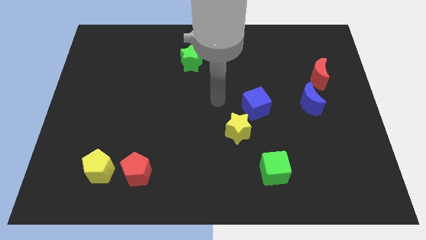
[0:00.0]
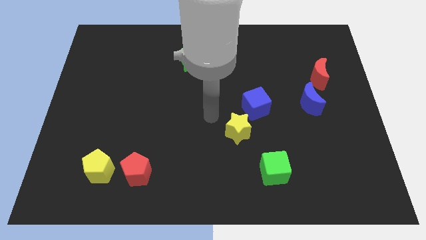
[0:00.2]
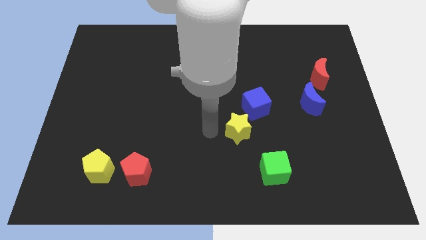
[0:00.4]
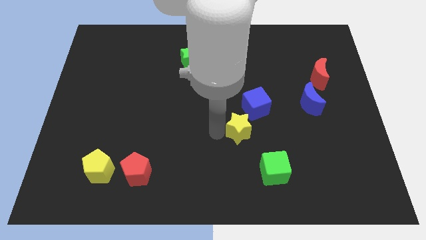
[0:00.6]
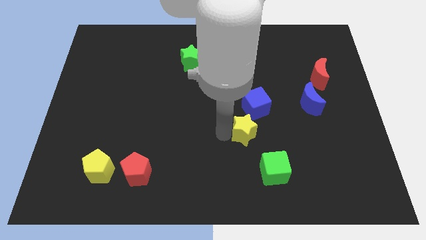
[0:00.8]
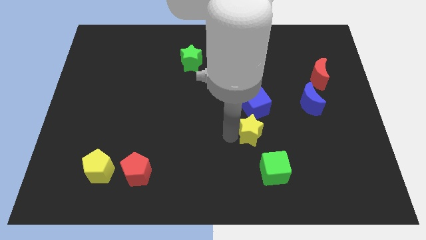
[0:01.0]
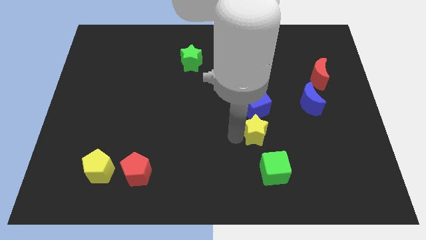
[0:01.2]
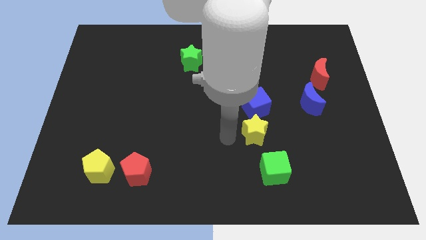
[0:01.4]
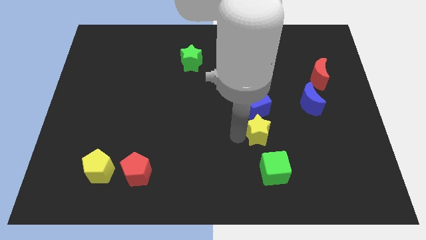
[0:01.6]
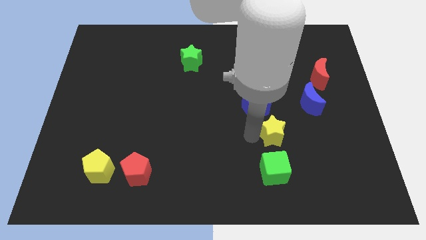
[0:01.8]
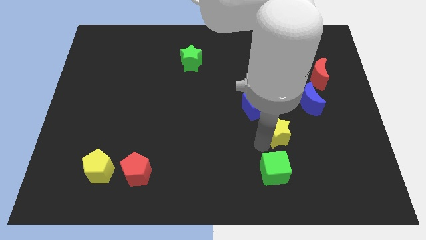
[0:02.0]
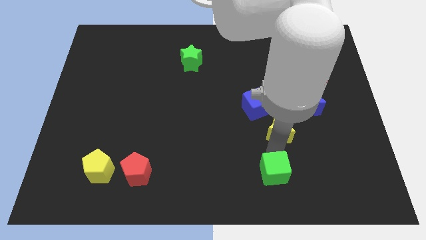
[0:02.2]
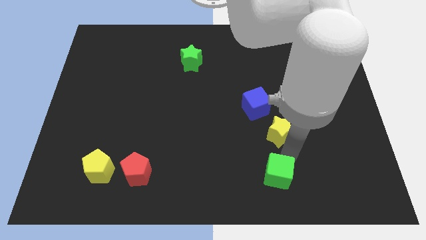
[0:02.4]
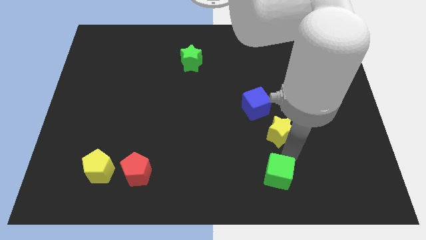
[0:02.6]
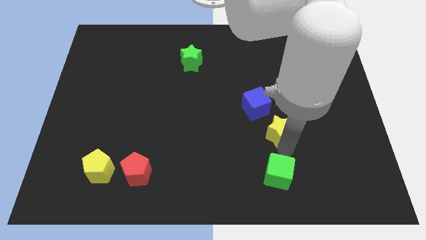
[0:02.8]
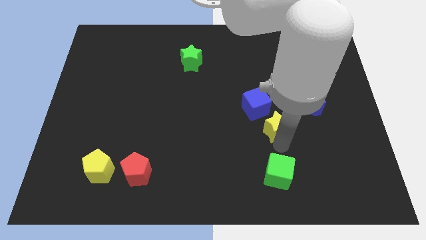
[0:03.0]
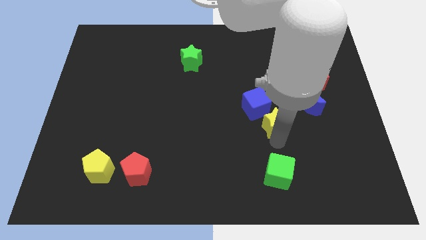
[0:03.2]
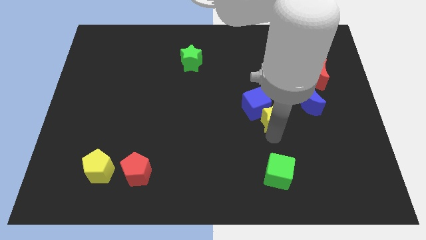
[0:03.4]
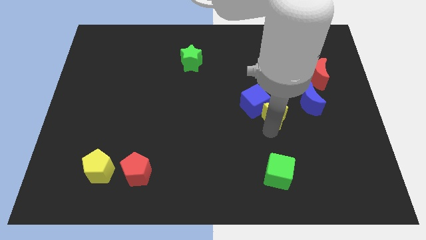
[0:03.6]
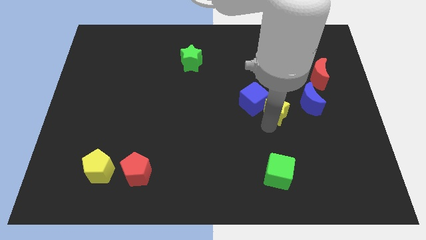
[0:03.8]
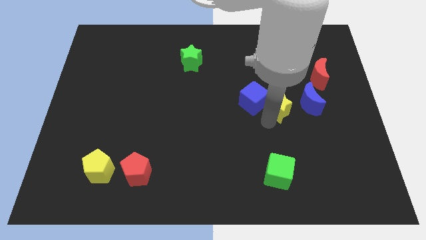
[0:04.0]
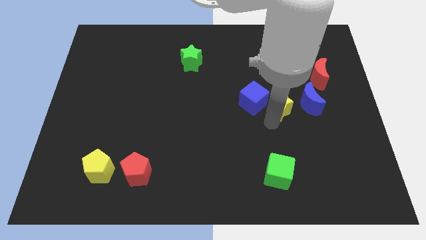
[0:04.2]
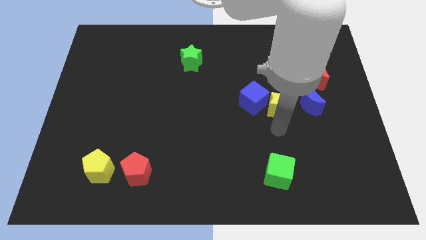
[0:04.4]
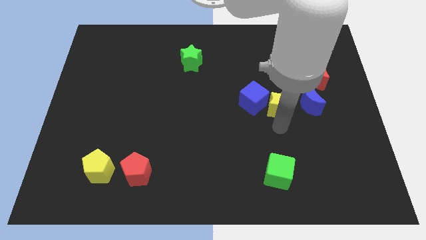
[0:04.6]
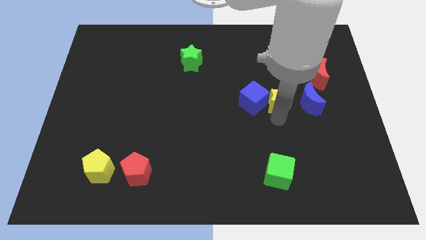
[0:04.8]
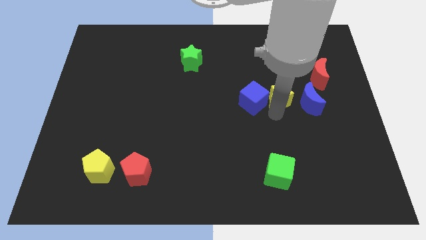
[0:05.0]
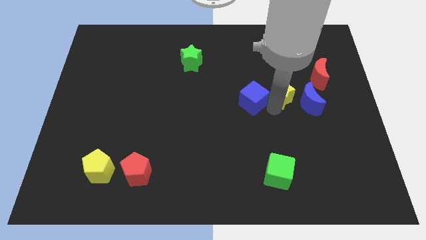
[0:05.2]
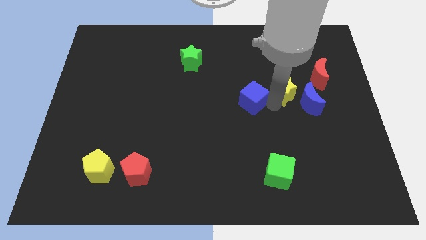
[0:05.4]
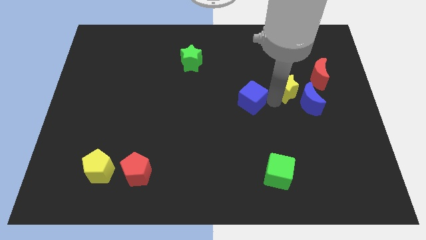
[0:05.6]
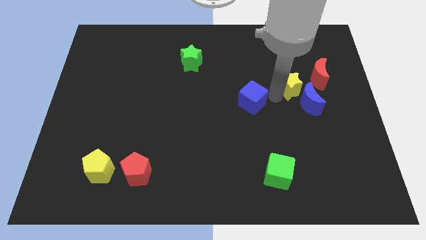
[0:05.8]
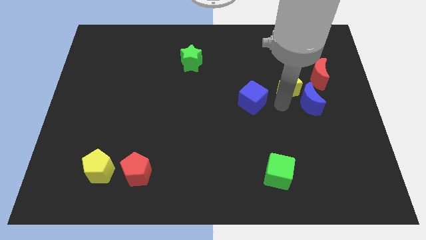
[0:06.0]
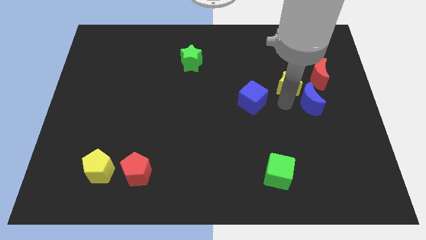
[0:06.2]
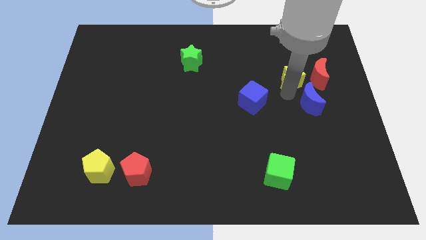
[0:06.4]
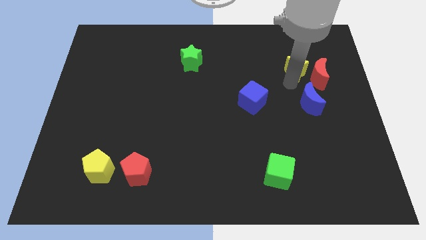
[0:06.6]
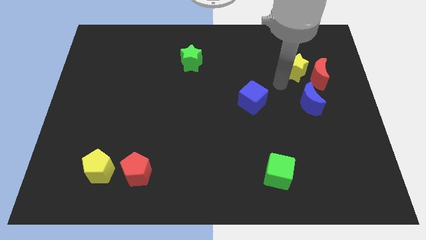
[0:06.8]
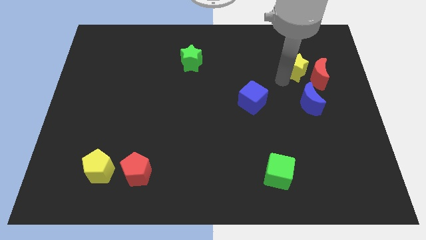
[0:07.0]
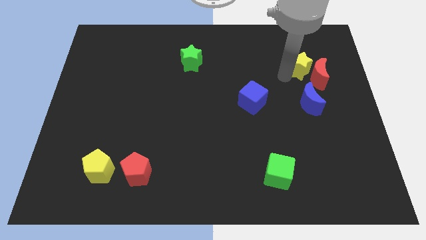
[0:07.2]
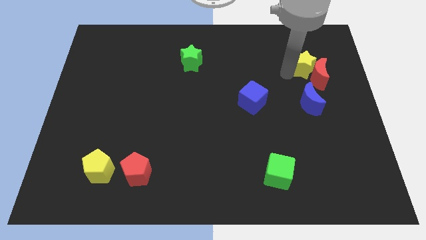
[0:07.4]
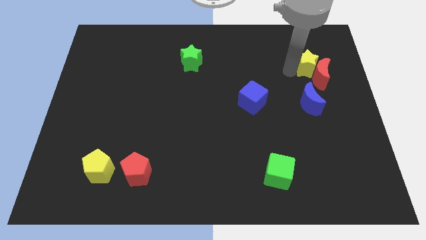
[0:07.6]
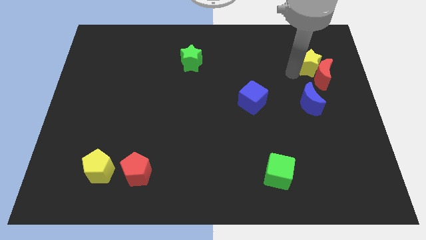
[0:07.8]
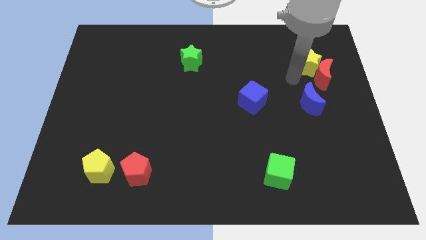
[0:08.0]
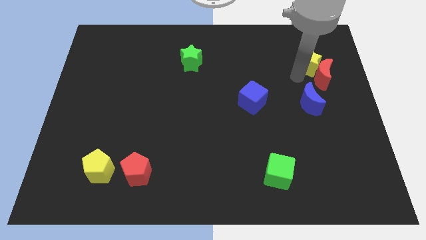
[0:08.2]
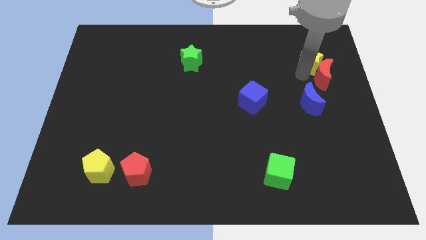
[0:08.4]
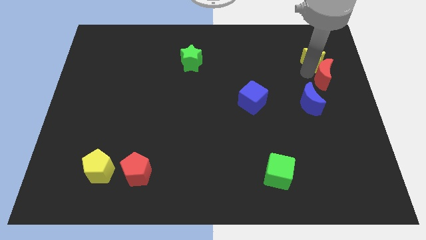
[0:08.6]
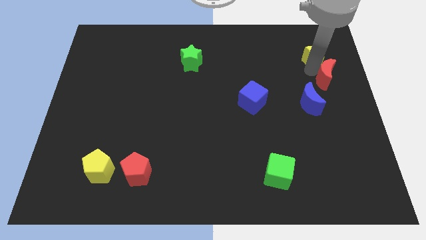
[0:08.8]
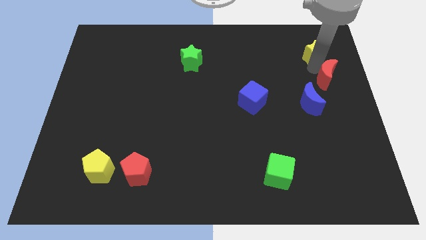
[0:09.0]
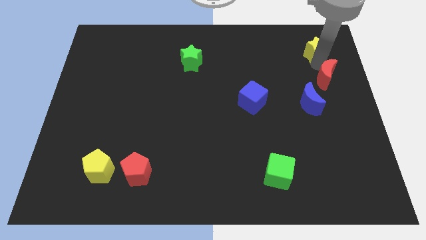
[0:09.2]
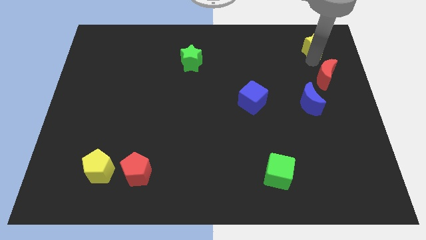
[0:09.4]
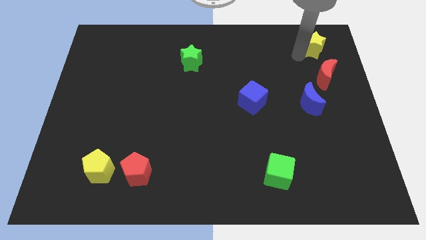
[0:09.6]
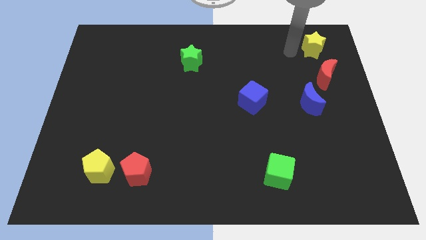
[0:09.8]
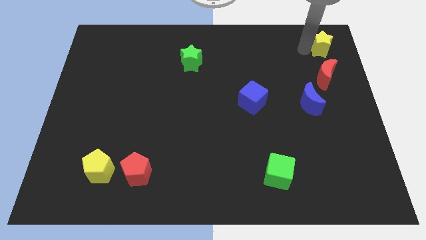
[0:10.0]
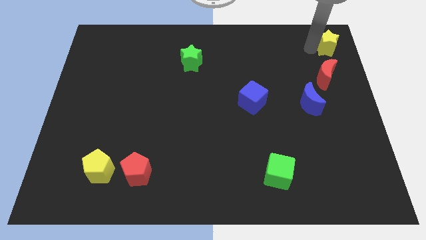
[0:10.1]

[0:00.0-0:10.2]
push the yellow star to the top right

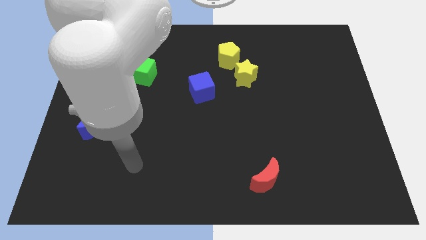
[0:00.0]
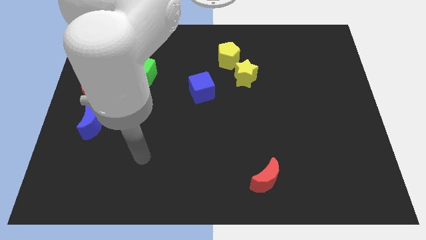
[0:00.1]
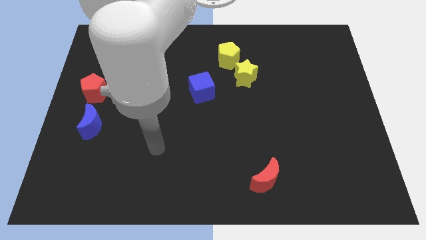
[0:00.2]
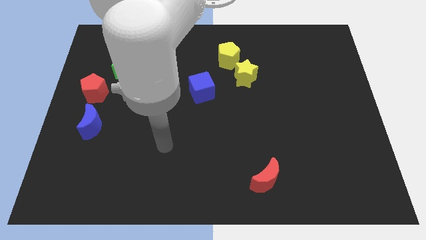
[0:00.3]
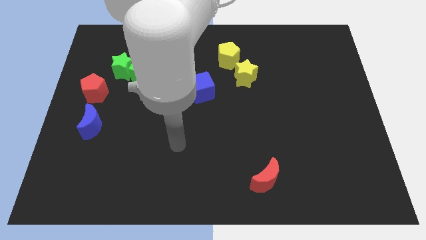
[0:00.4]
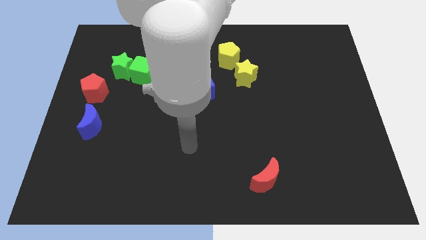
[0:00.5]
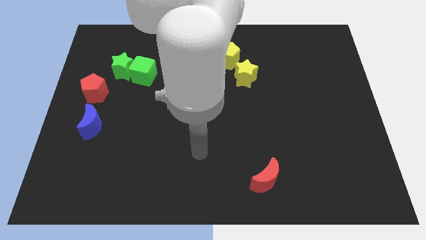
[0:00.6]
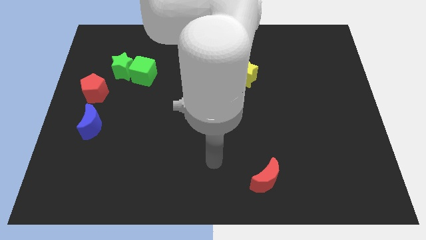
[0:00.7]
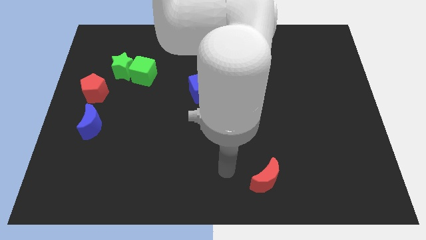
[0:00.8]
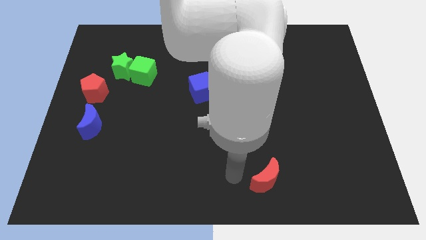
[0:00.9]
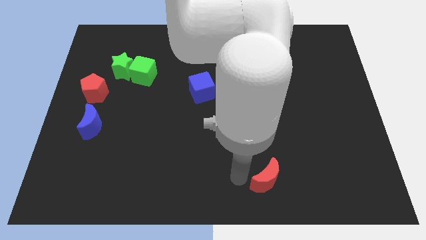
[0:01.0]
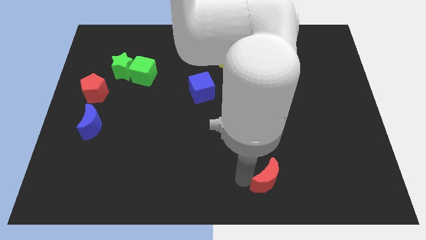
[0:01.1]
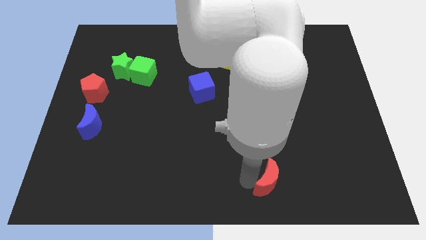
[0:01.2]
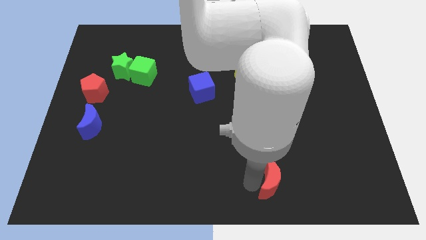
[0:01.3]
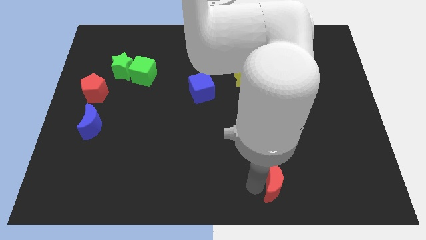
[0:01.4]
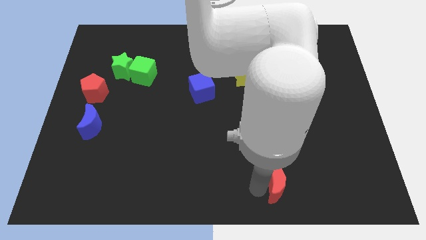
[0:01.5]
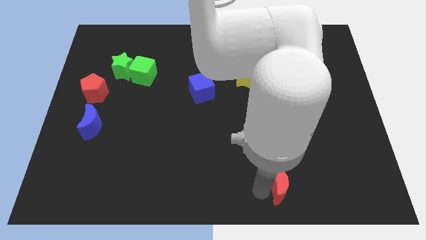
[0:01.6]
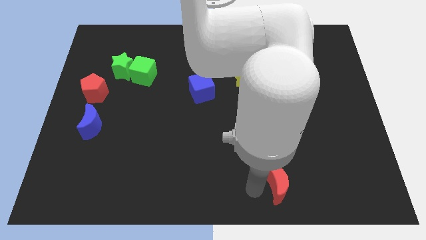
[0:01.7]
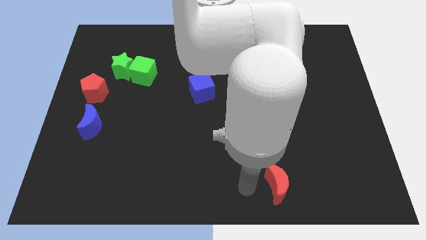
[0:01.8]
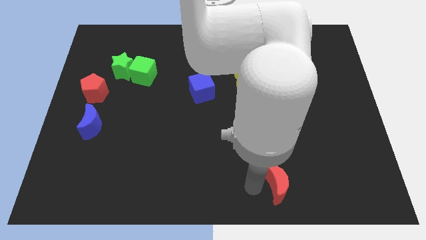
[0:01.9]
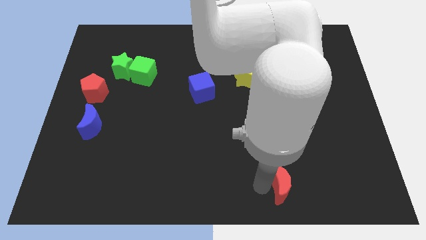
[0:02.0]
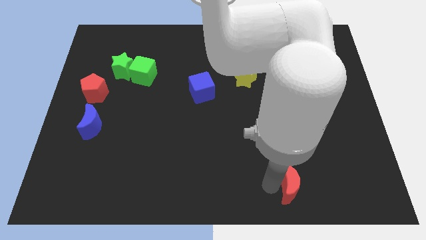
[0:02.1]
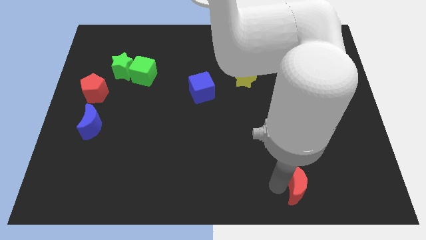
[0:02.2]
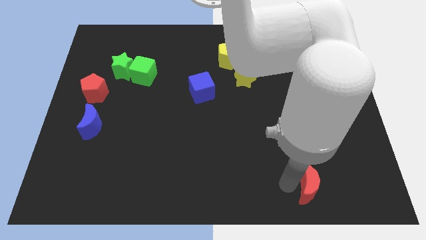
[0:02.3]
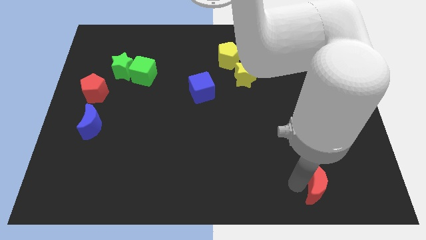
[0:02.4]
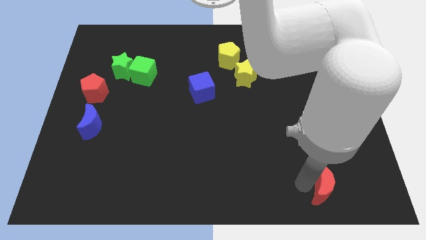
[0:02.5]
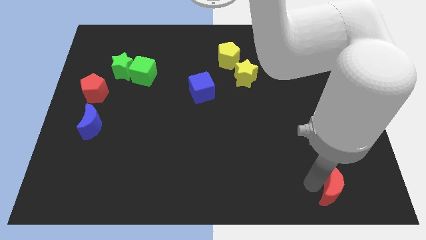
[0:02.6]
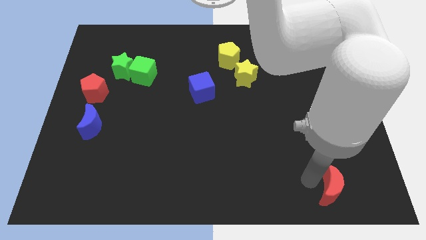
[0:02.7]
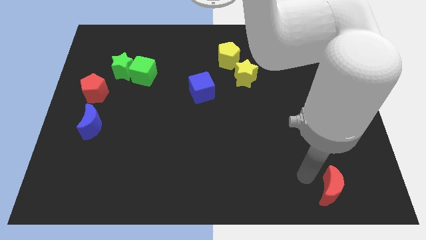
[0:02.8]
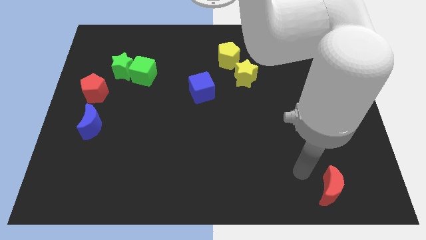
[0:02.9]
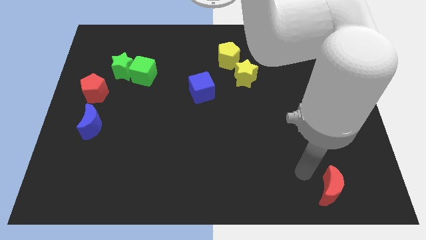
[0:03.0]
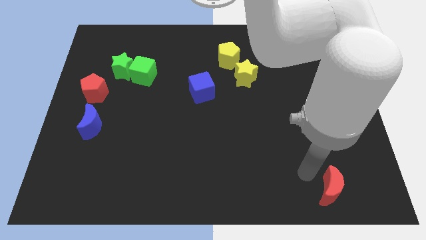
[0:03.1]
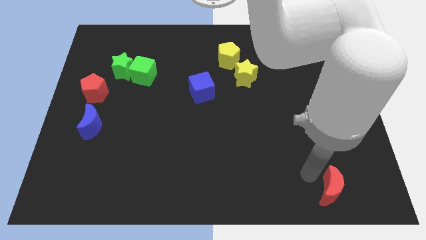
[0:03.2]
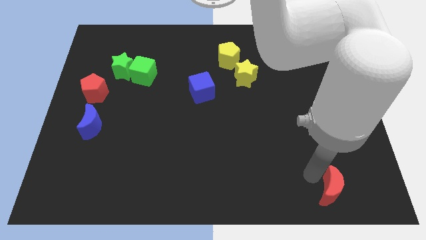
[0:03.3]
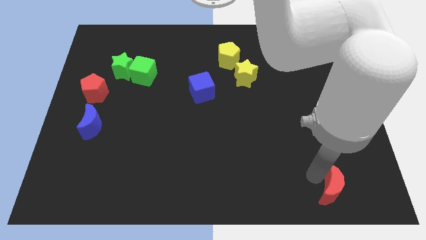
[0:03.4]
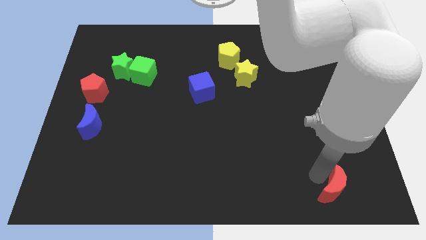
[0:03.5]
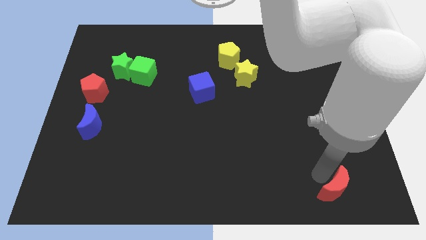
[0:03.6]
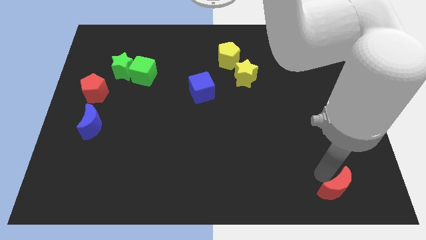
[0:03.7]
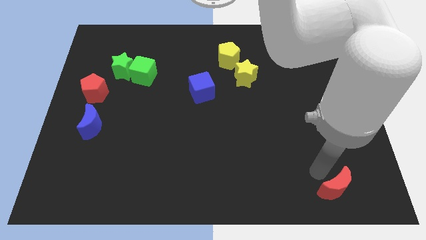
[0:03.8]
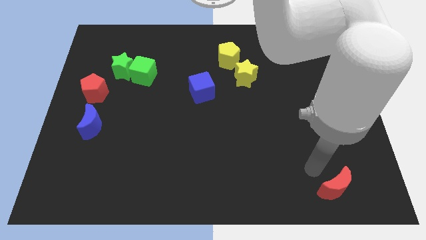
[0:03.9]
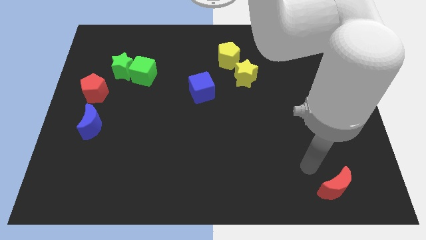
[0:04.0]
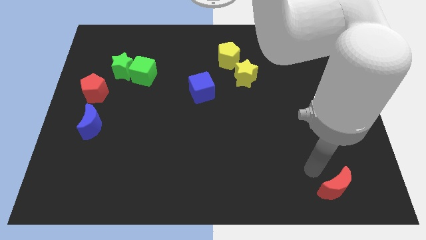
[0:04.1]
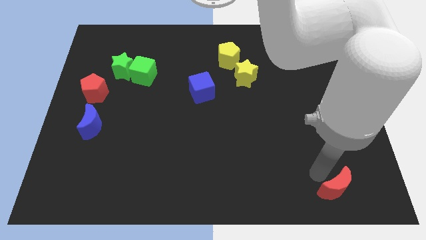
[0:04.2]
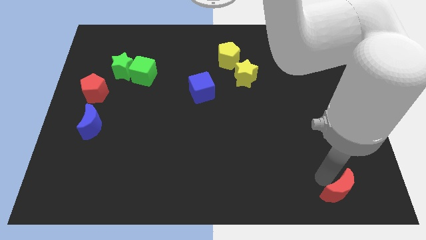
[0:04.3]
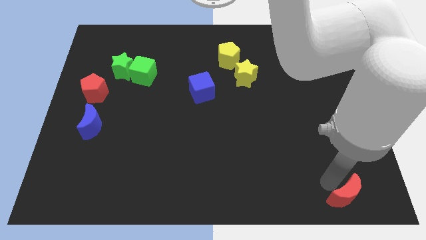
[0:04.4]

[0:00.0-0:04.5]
slide the red moon to the bottom right
